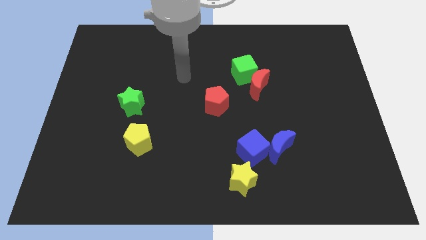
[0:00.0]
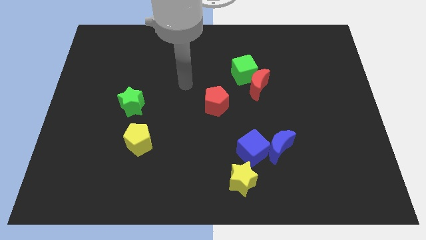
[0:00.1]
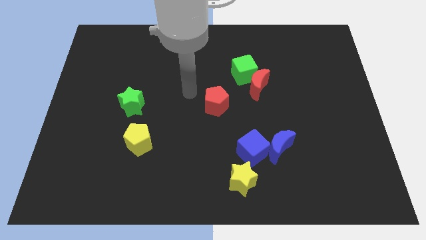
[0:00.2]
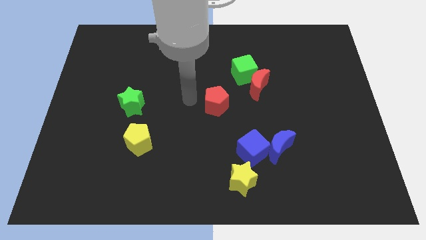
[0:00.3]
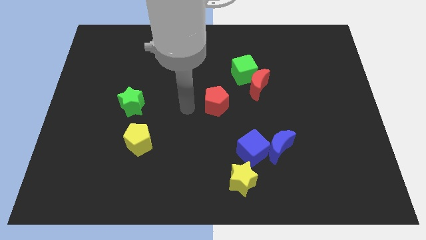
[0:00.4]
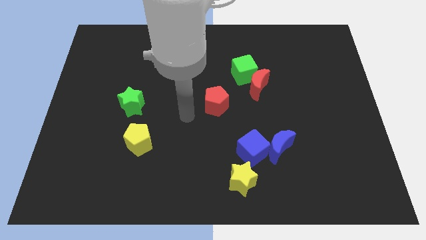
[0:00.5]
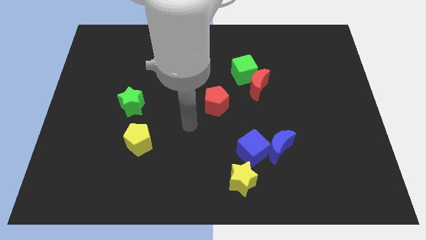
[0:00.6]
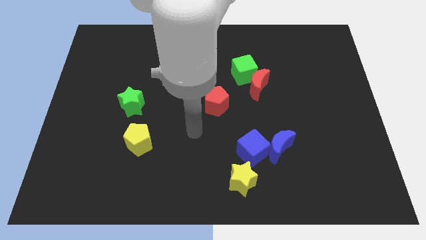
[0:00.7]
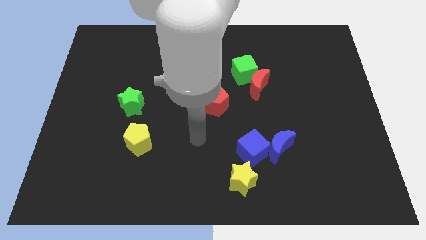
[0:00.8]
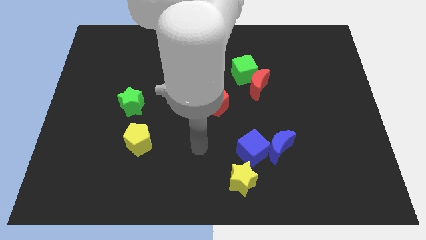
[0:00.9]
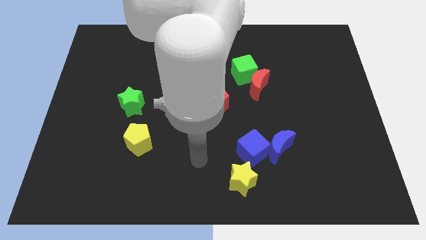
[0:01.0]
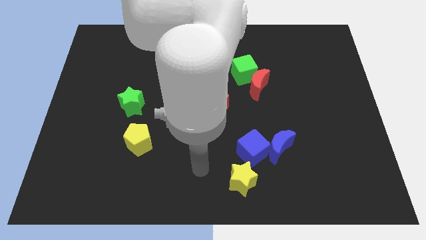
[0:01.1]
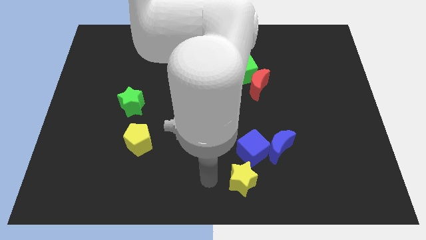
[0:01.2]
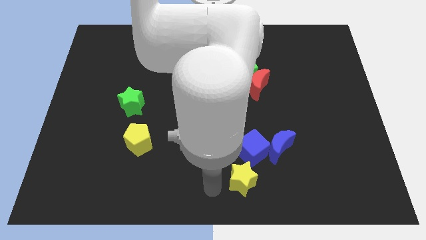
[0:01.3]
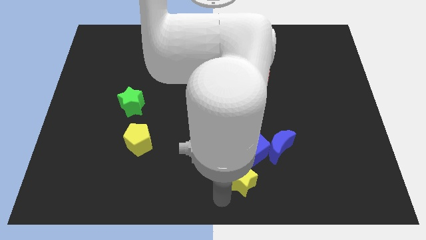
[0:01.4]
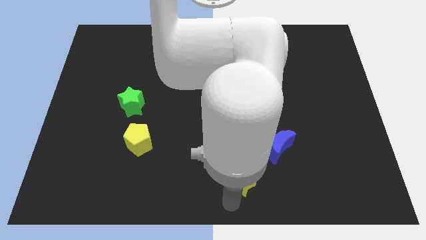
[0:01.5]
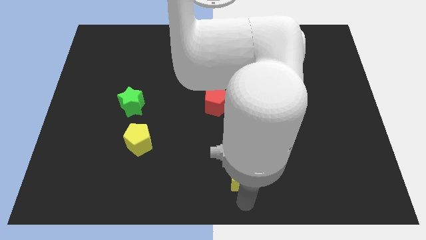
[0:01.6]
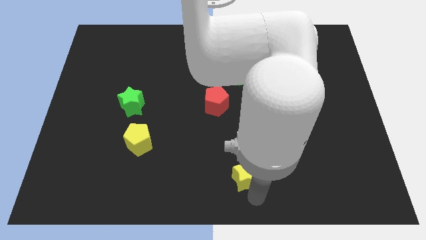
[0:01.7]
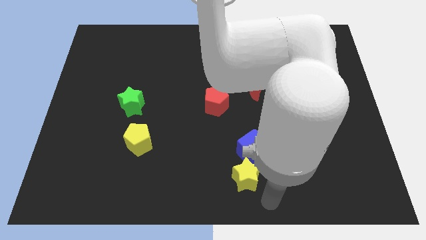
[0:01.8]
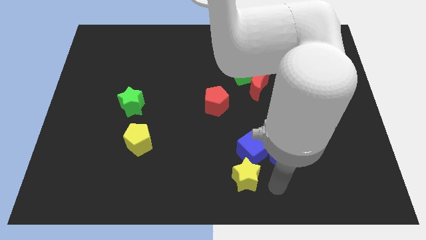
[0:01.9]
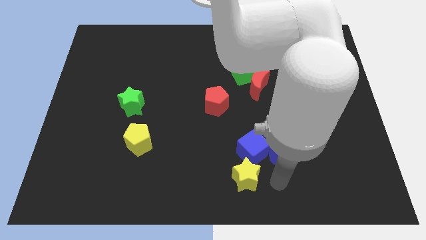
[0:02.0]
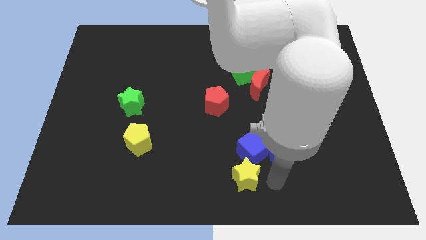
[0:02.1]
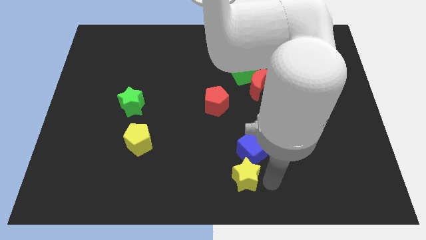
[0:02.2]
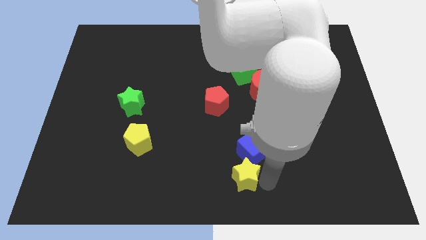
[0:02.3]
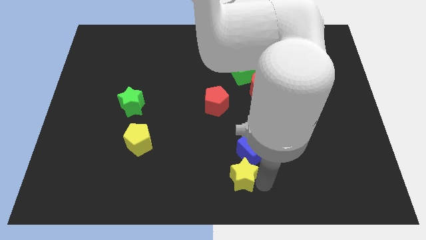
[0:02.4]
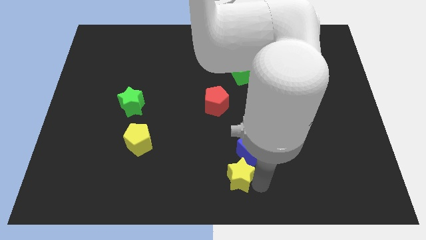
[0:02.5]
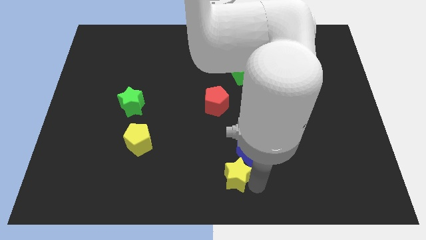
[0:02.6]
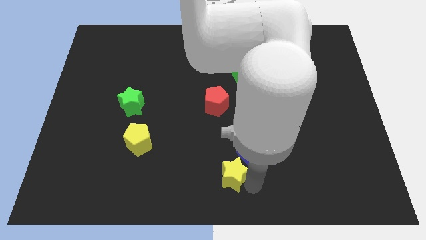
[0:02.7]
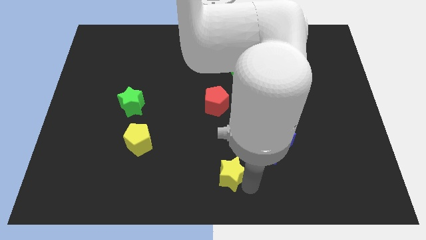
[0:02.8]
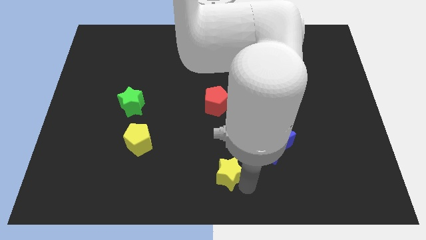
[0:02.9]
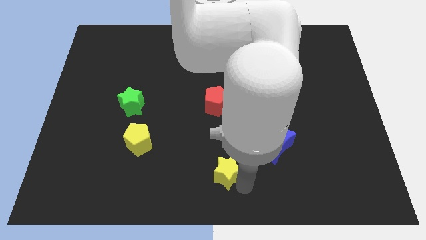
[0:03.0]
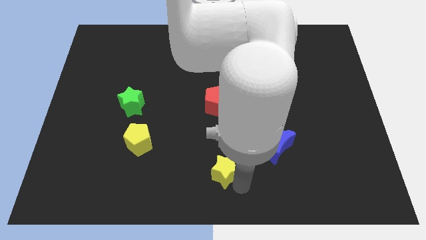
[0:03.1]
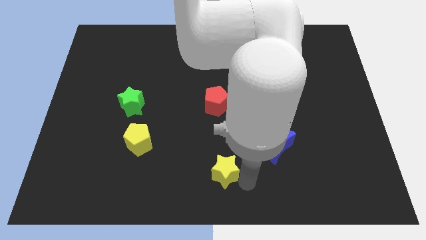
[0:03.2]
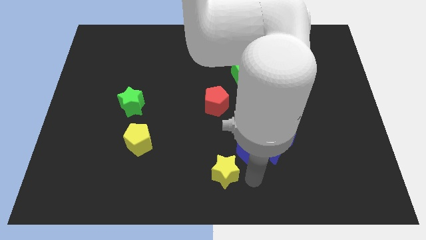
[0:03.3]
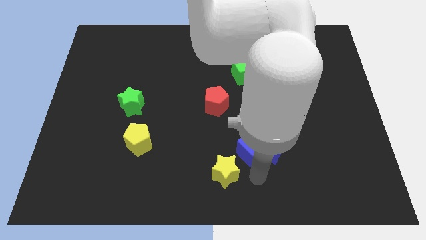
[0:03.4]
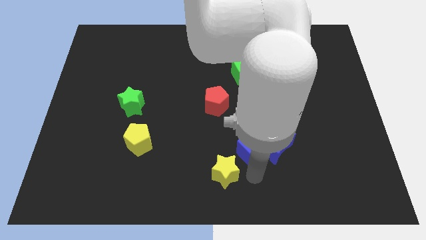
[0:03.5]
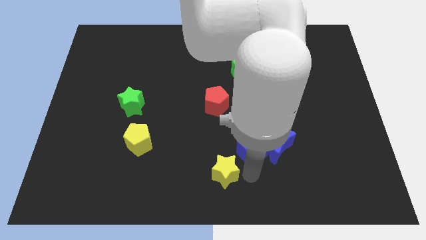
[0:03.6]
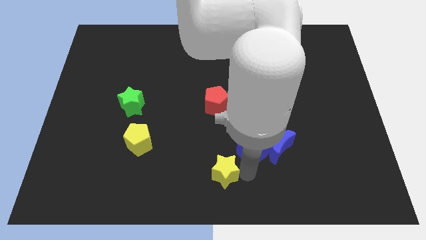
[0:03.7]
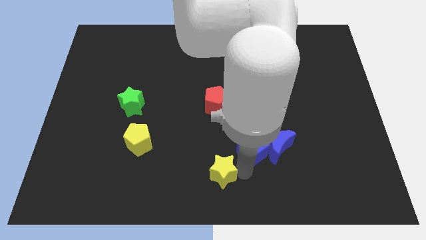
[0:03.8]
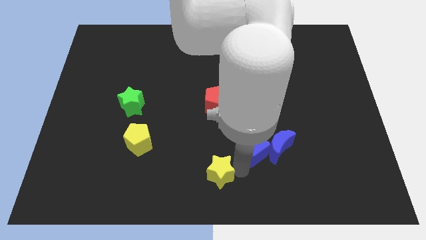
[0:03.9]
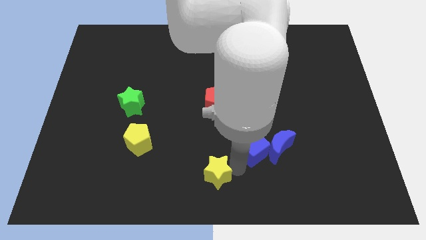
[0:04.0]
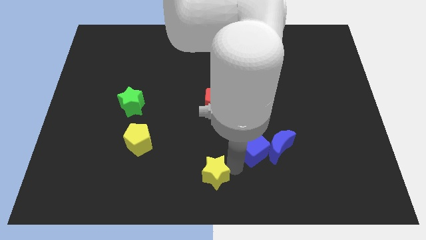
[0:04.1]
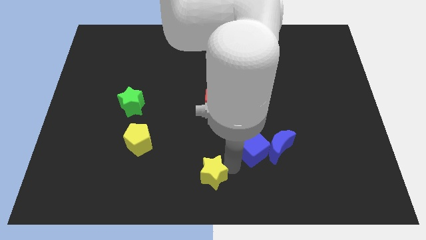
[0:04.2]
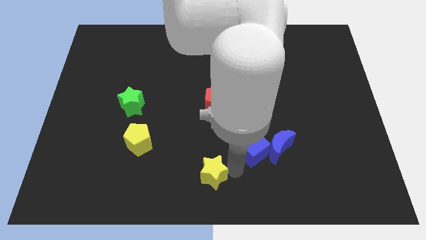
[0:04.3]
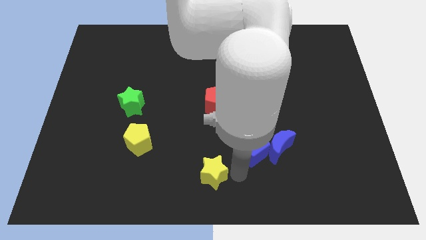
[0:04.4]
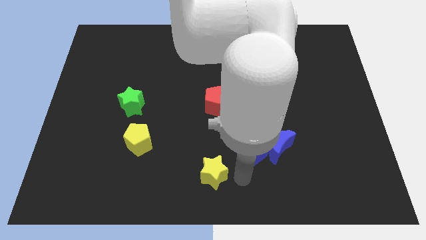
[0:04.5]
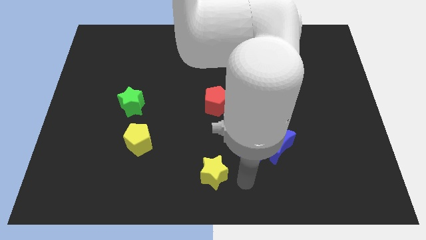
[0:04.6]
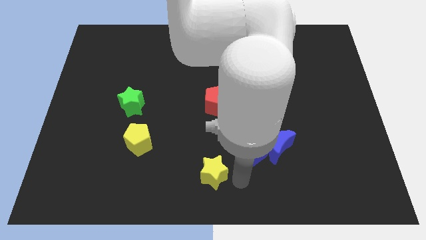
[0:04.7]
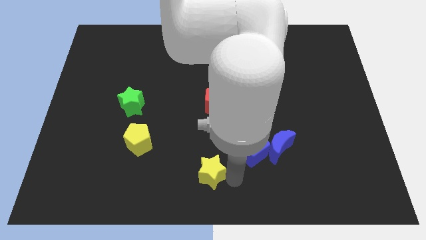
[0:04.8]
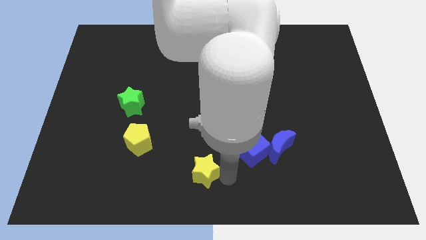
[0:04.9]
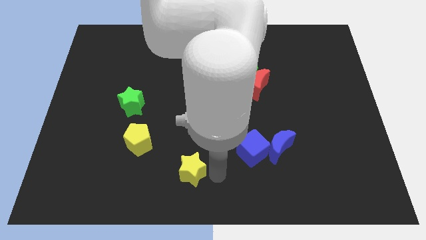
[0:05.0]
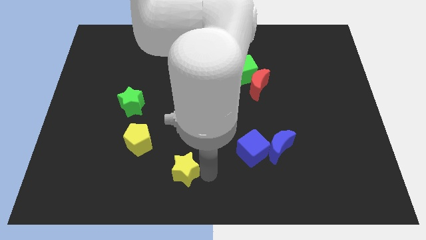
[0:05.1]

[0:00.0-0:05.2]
slide the yellow star to the bottom right of the yellow pentagon

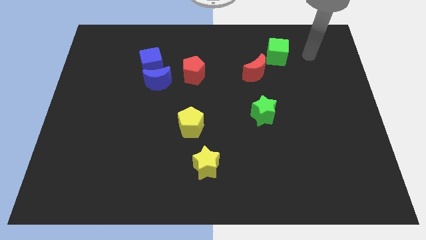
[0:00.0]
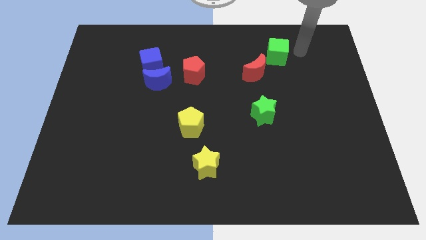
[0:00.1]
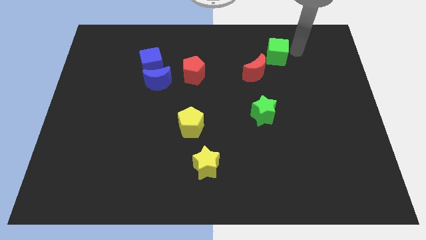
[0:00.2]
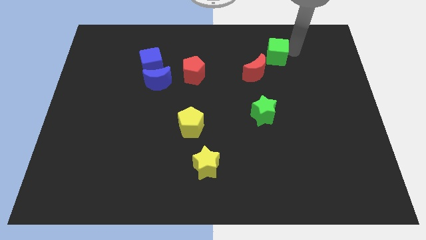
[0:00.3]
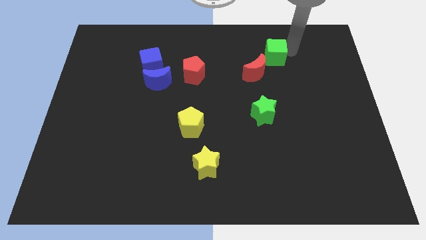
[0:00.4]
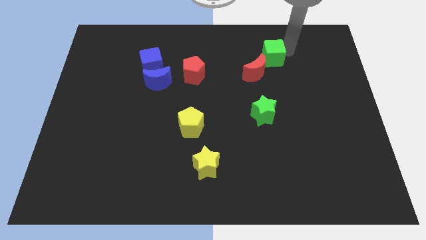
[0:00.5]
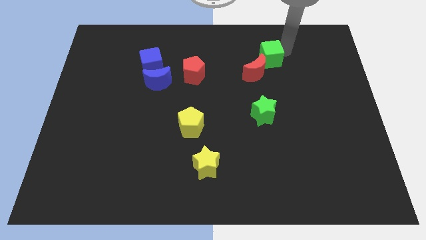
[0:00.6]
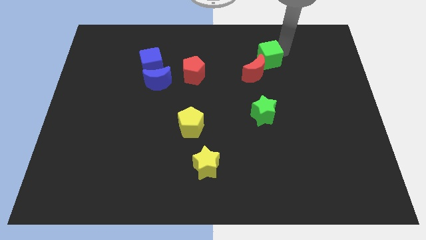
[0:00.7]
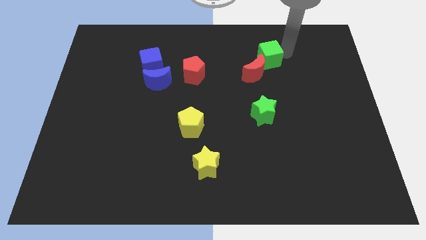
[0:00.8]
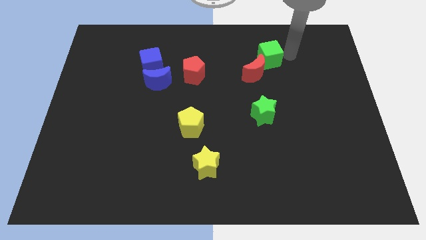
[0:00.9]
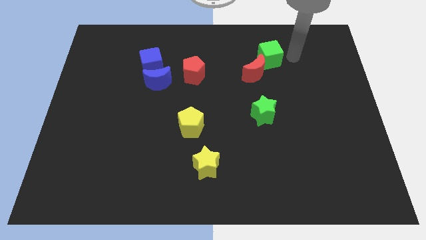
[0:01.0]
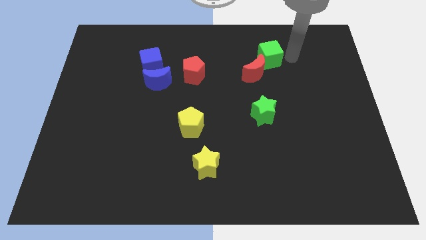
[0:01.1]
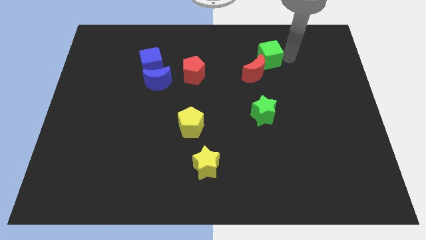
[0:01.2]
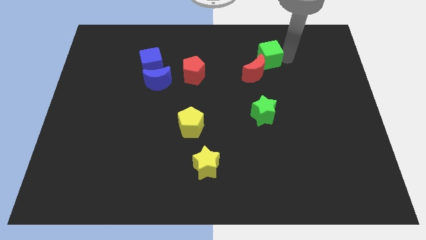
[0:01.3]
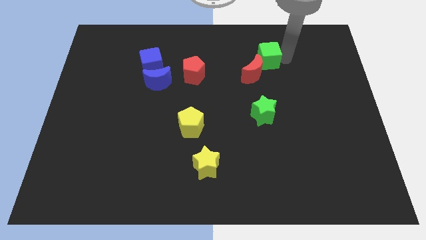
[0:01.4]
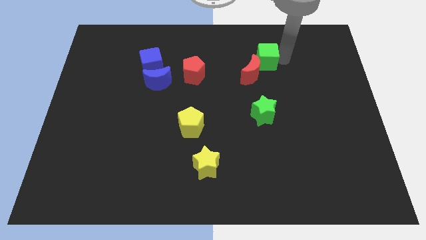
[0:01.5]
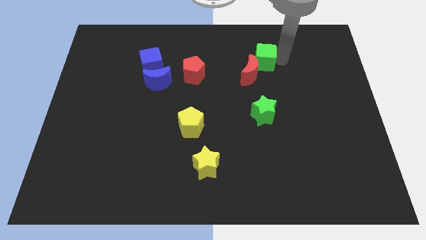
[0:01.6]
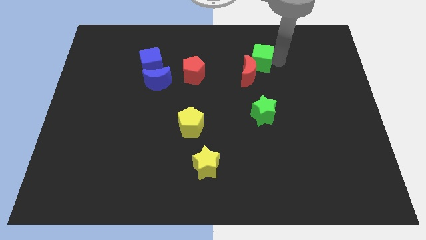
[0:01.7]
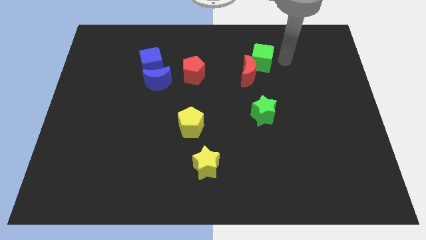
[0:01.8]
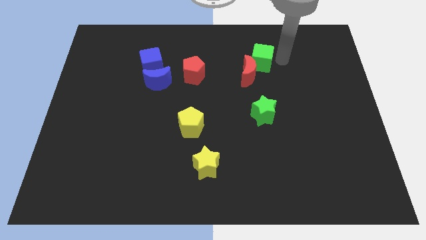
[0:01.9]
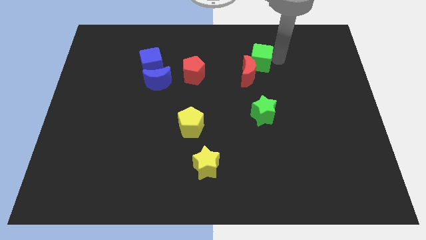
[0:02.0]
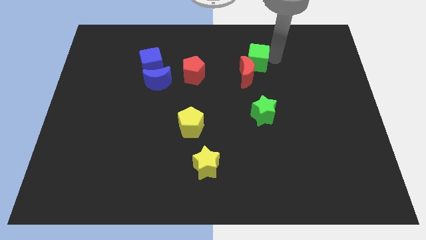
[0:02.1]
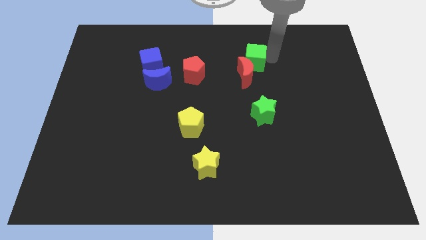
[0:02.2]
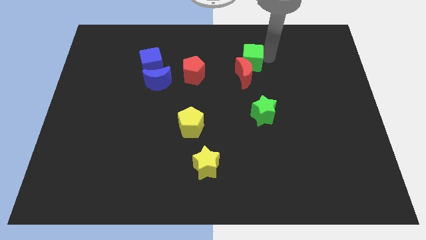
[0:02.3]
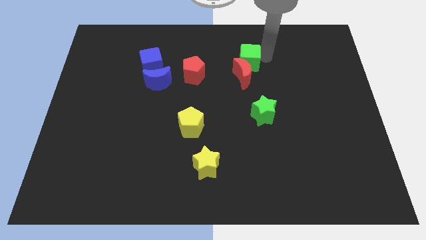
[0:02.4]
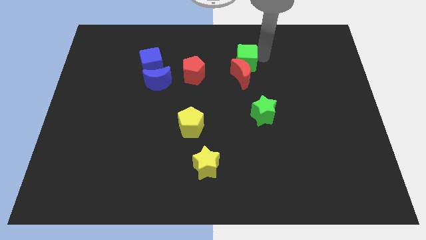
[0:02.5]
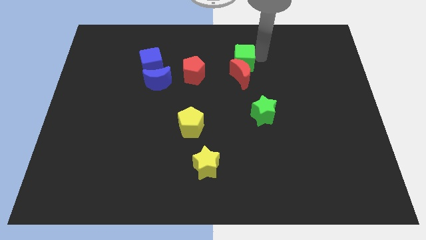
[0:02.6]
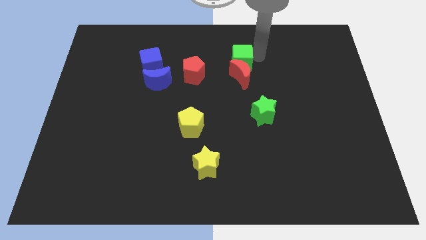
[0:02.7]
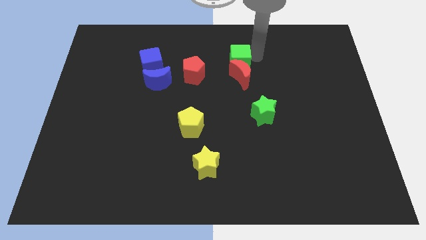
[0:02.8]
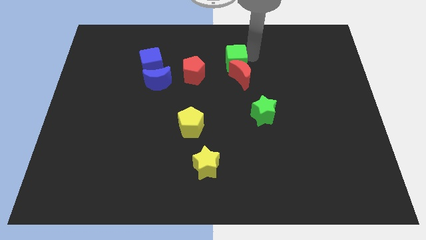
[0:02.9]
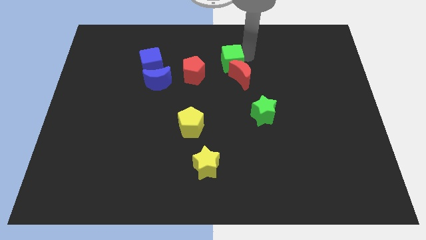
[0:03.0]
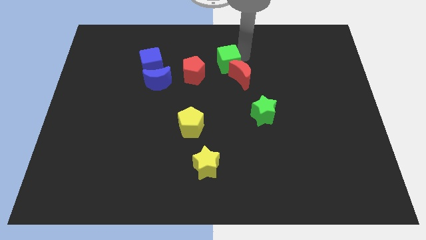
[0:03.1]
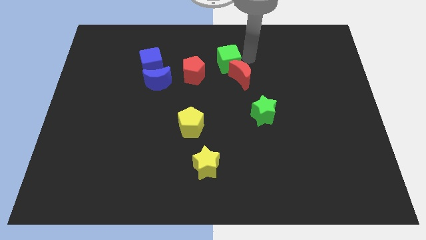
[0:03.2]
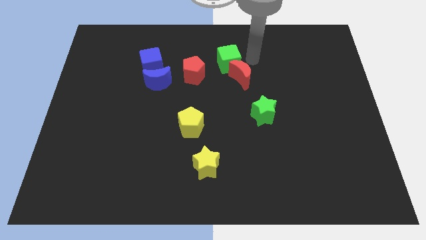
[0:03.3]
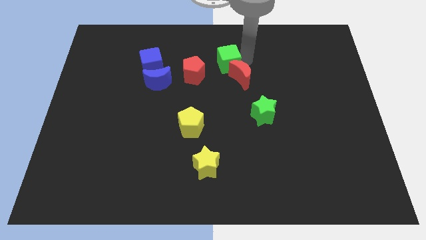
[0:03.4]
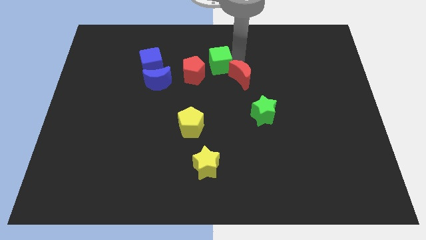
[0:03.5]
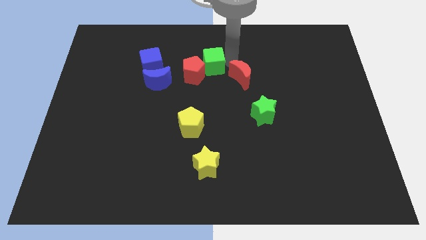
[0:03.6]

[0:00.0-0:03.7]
move the green cube right of the blue cube
